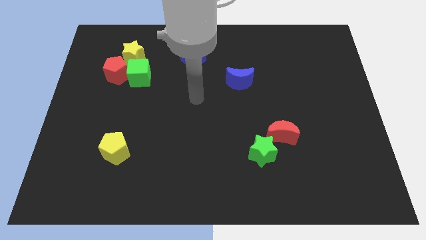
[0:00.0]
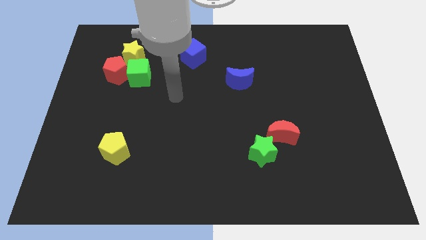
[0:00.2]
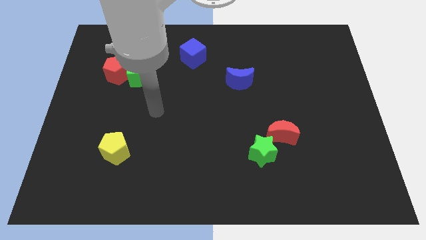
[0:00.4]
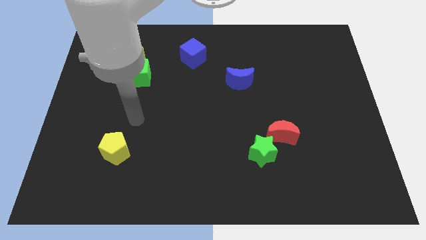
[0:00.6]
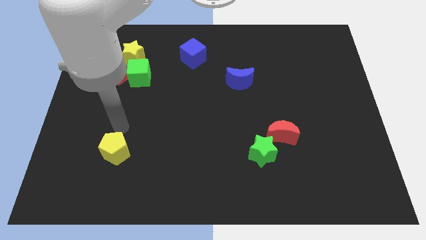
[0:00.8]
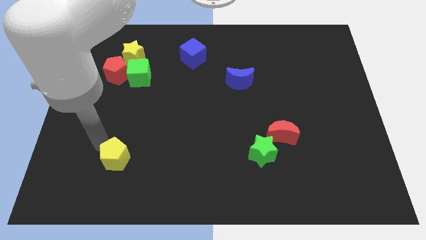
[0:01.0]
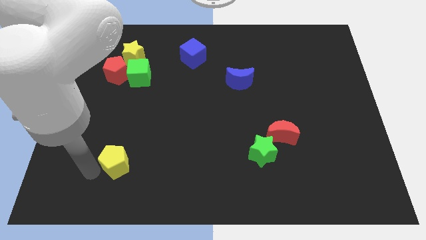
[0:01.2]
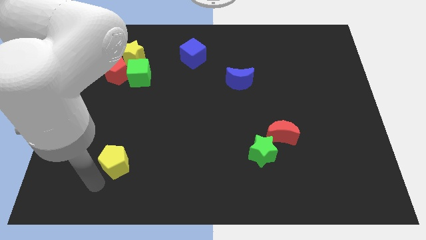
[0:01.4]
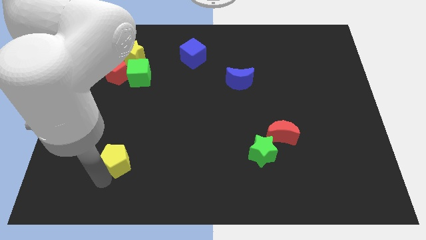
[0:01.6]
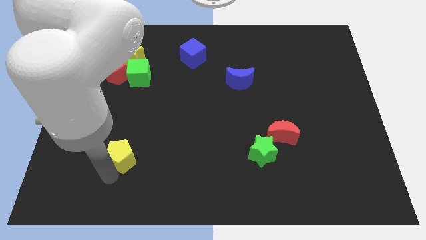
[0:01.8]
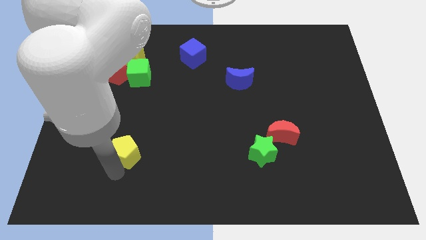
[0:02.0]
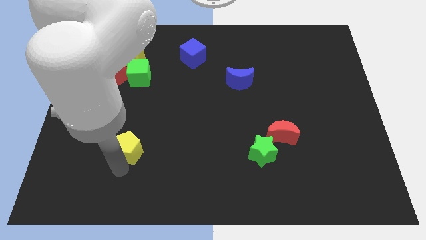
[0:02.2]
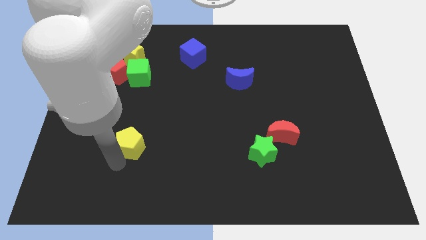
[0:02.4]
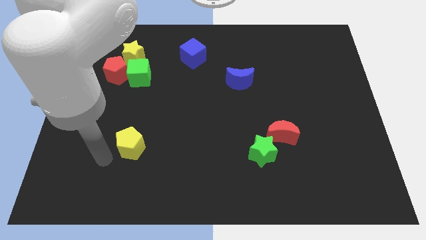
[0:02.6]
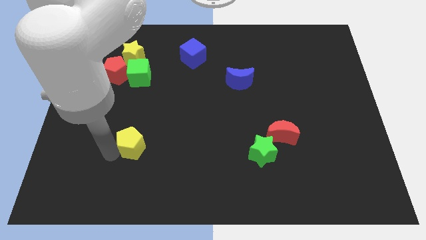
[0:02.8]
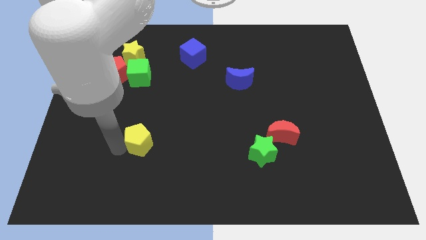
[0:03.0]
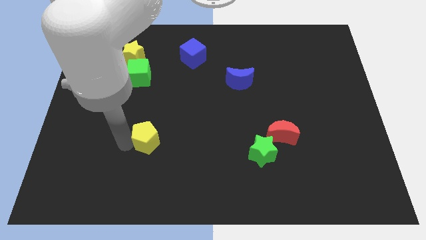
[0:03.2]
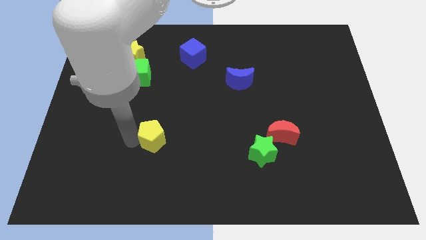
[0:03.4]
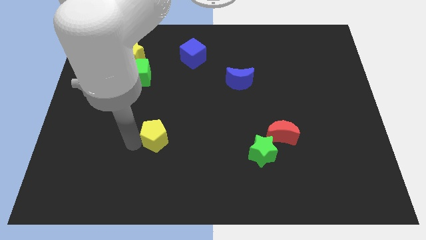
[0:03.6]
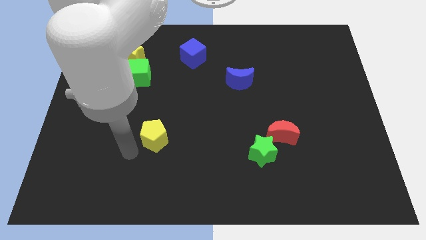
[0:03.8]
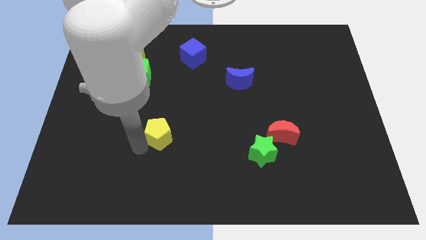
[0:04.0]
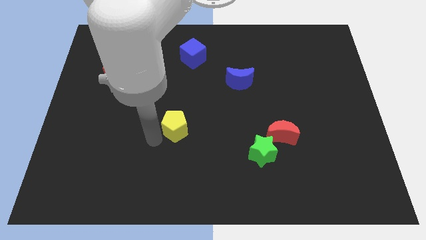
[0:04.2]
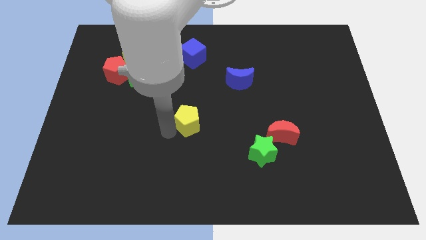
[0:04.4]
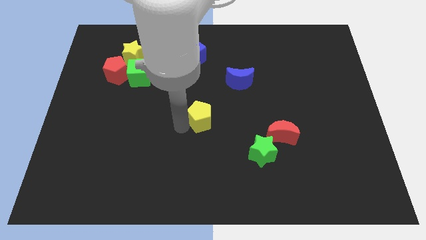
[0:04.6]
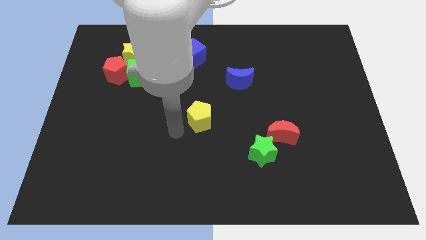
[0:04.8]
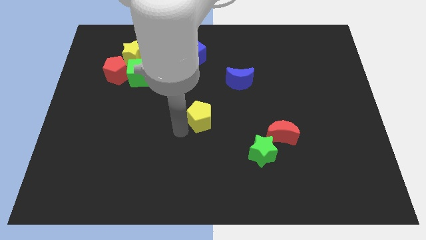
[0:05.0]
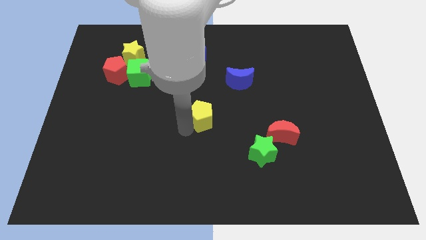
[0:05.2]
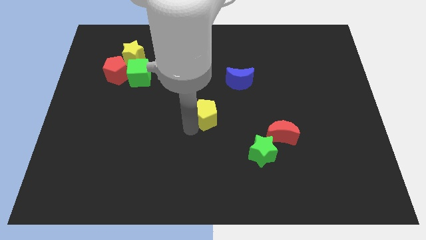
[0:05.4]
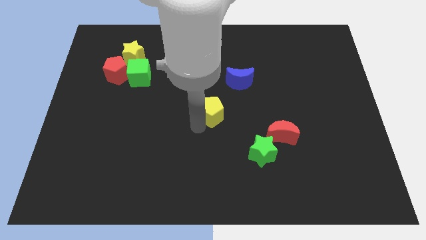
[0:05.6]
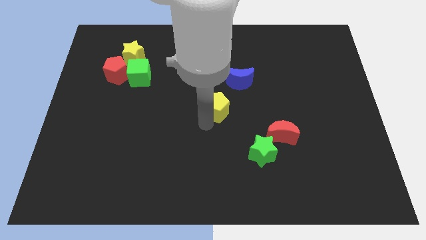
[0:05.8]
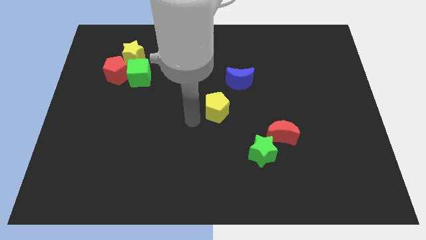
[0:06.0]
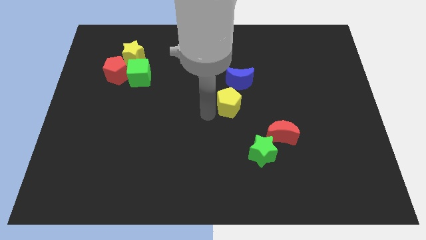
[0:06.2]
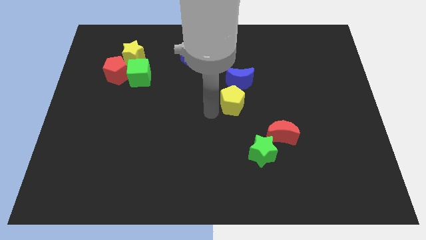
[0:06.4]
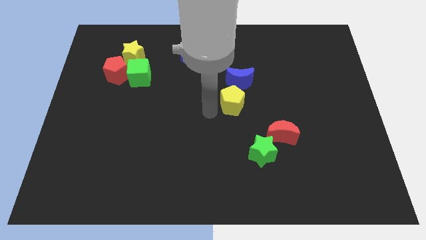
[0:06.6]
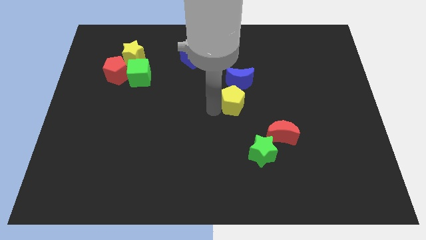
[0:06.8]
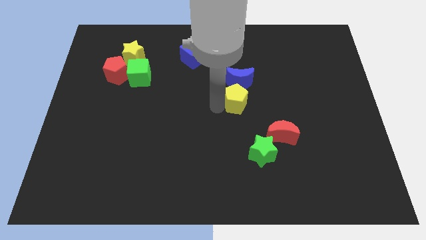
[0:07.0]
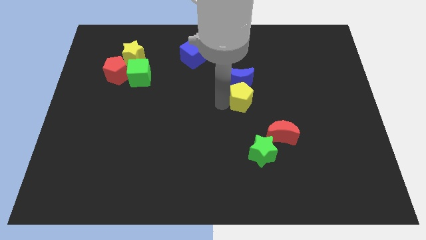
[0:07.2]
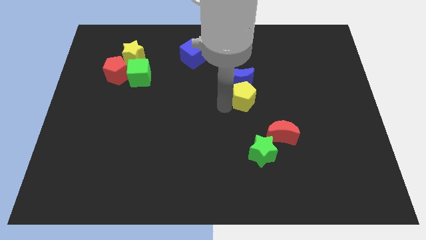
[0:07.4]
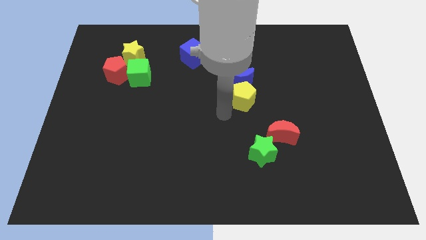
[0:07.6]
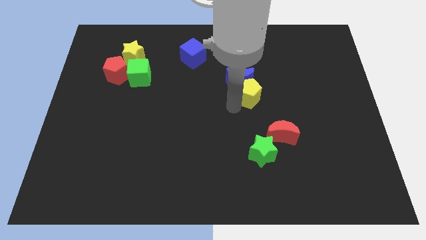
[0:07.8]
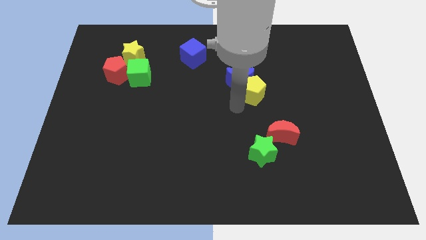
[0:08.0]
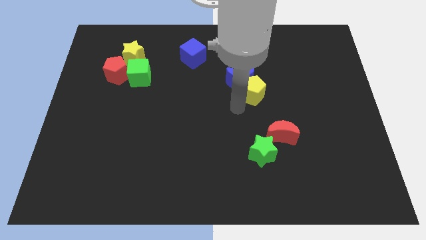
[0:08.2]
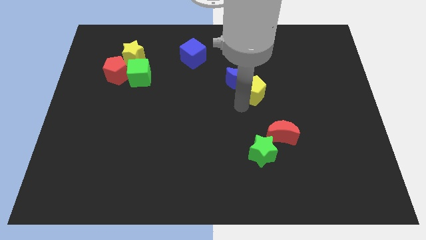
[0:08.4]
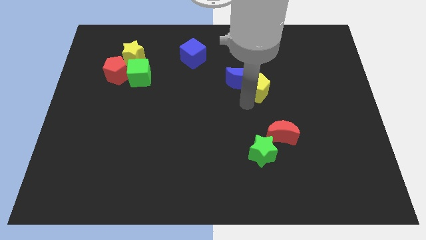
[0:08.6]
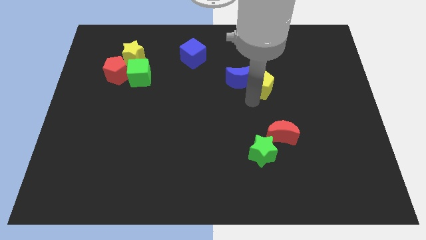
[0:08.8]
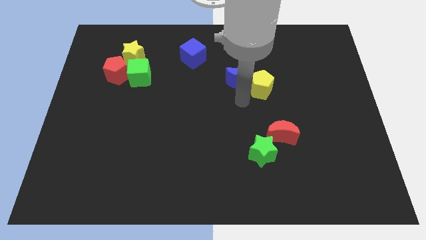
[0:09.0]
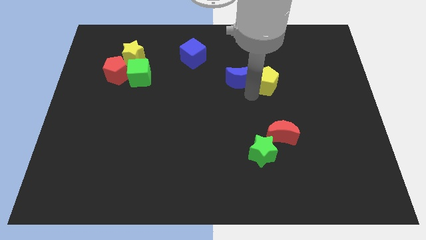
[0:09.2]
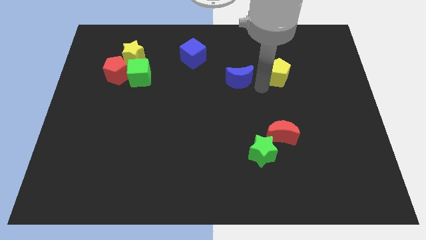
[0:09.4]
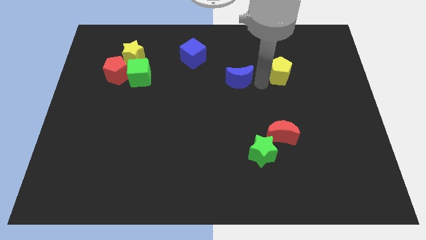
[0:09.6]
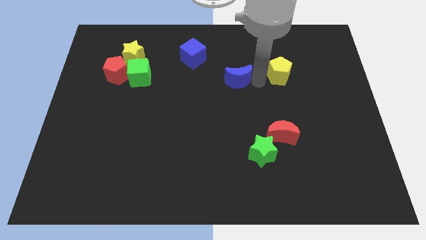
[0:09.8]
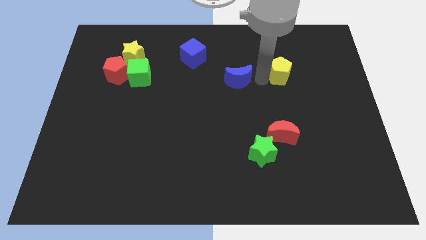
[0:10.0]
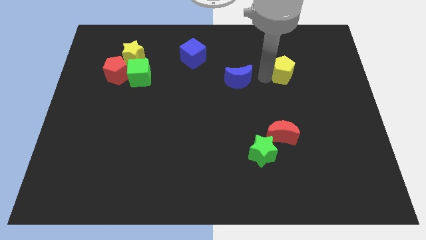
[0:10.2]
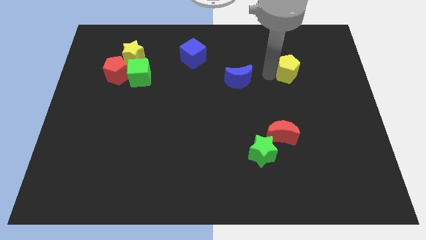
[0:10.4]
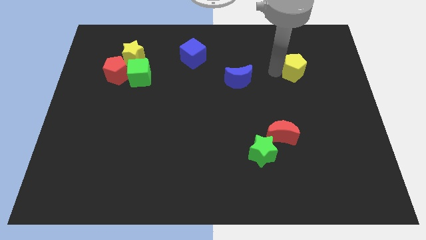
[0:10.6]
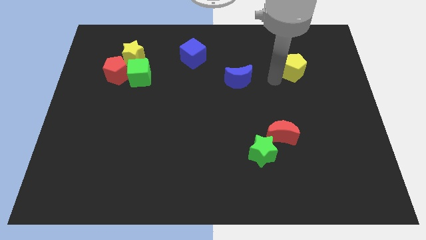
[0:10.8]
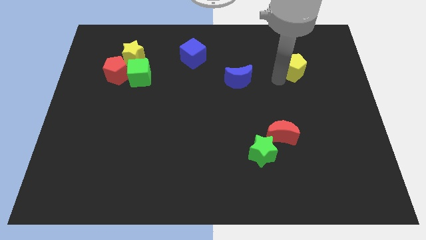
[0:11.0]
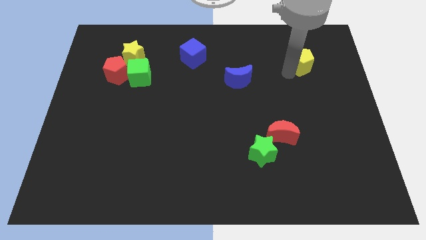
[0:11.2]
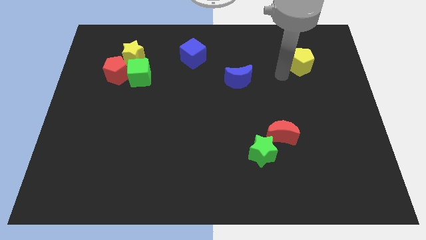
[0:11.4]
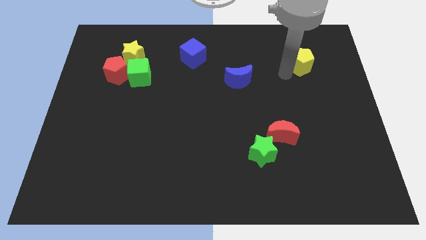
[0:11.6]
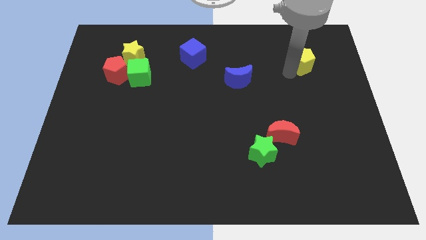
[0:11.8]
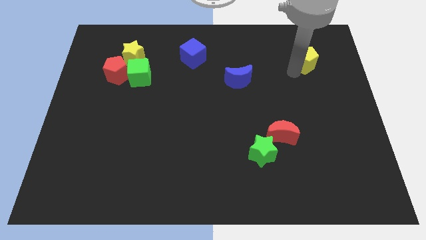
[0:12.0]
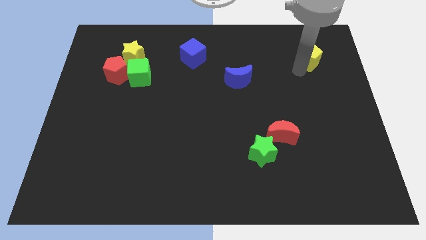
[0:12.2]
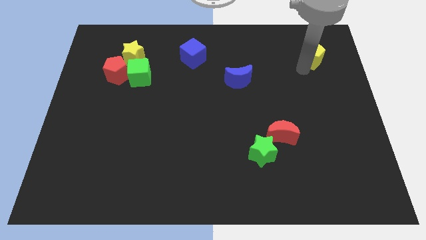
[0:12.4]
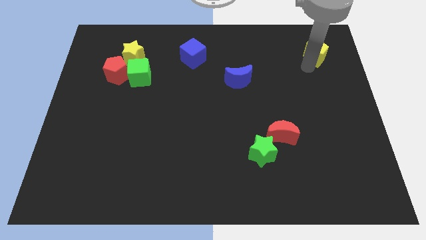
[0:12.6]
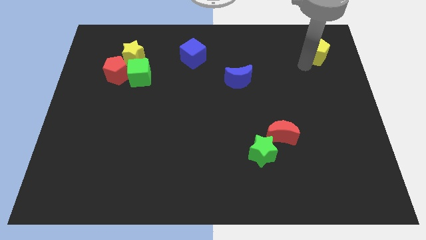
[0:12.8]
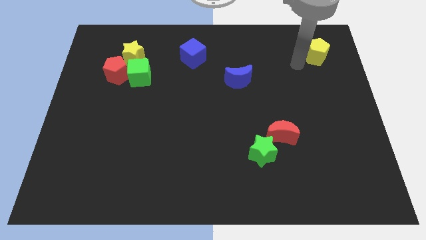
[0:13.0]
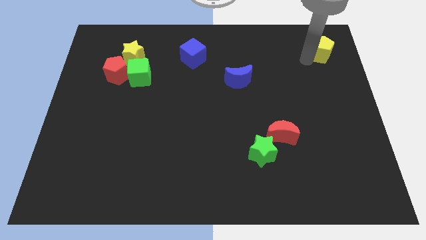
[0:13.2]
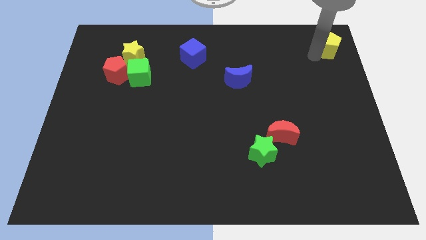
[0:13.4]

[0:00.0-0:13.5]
slide the yellow pentagon to the top right of the board

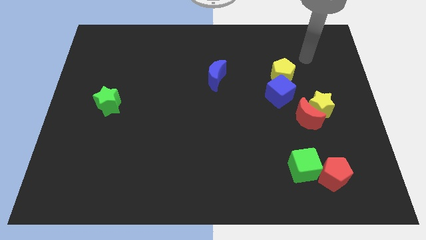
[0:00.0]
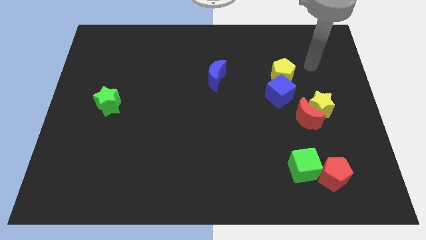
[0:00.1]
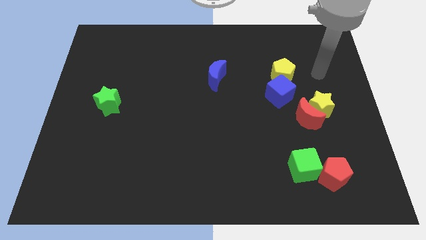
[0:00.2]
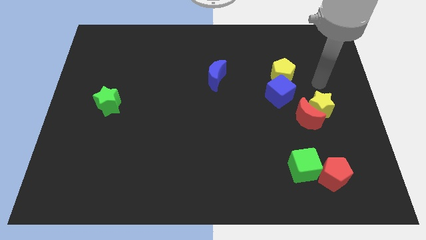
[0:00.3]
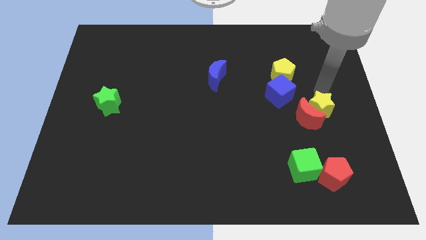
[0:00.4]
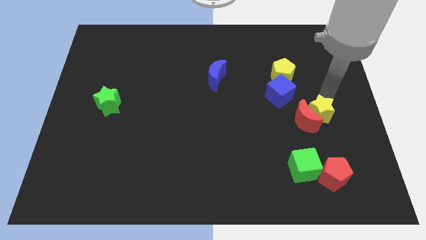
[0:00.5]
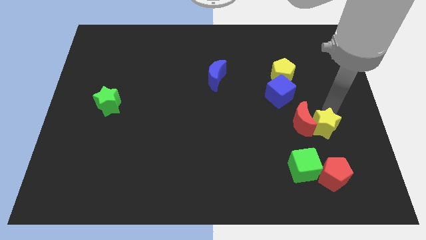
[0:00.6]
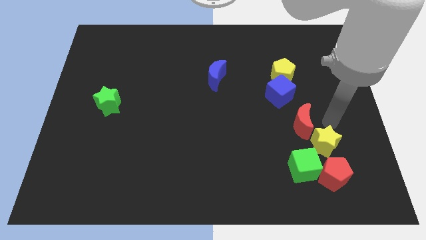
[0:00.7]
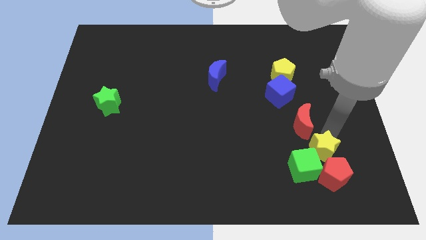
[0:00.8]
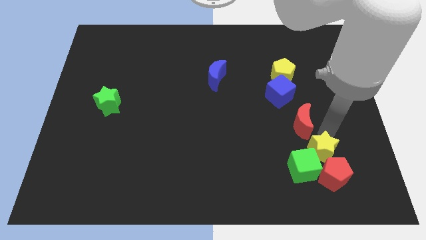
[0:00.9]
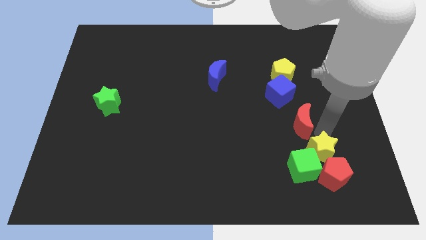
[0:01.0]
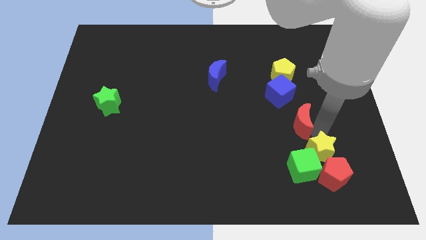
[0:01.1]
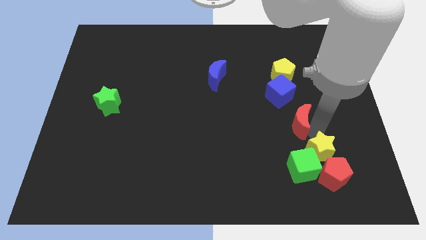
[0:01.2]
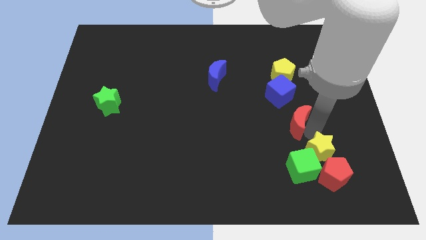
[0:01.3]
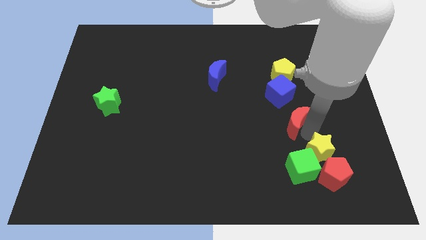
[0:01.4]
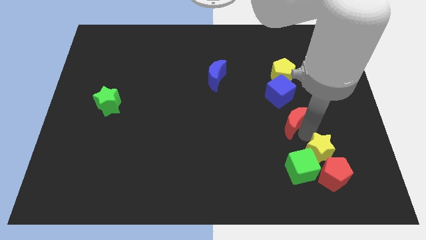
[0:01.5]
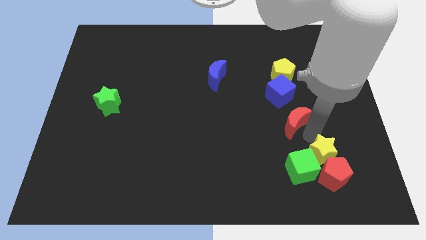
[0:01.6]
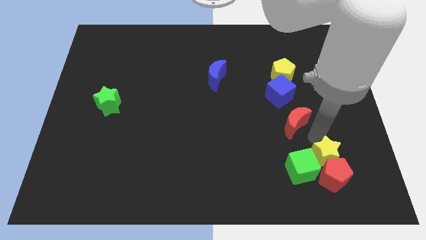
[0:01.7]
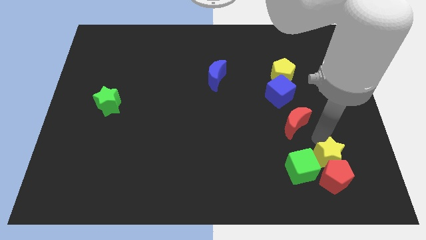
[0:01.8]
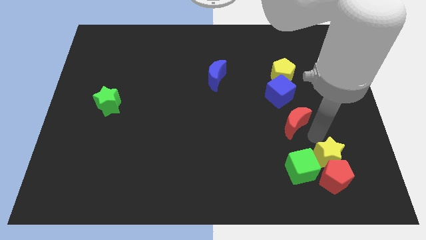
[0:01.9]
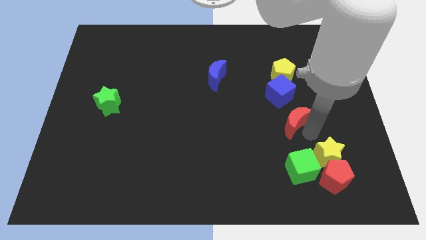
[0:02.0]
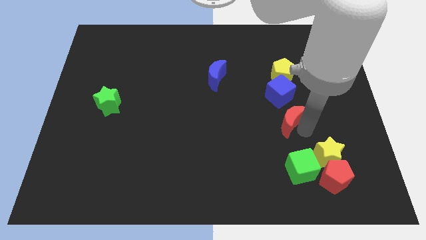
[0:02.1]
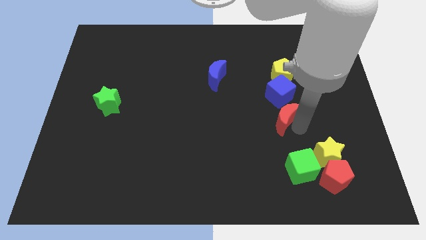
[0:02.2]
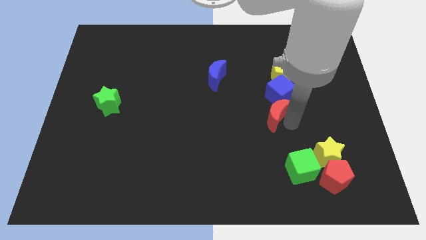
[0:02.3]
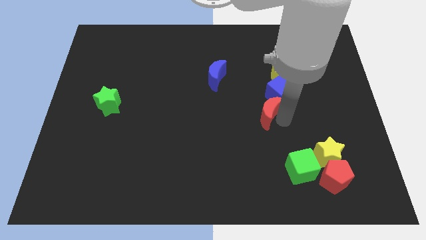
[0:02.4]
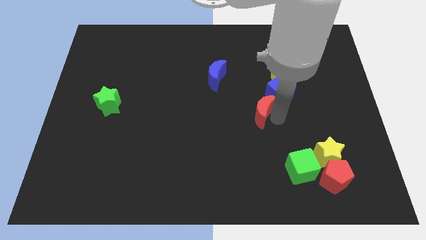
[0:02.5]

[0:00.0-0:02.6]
push the red moon to the center of the board
